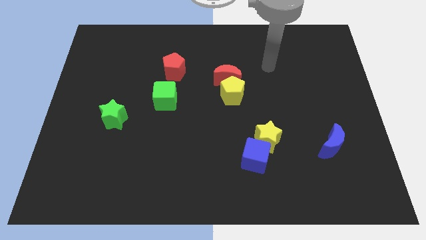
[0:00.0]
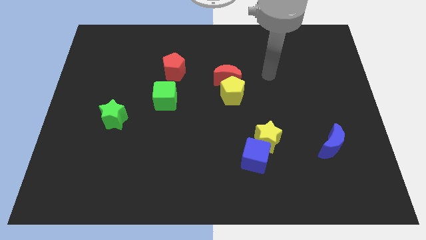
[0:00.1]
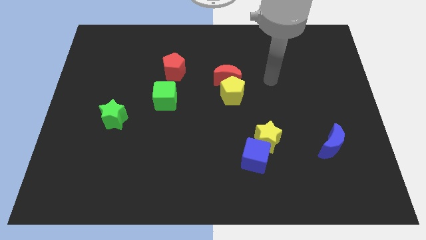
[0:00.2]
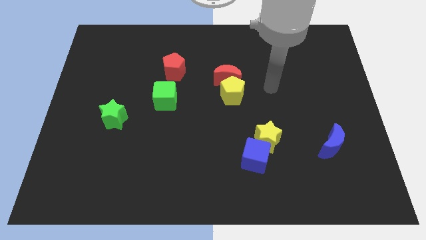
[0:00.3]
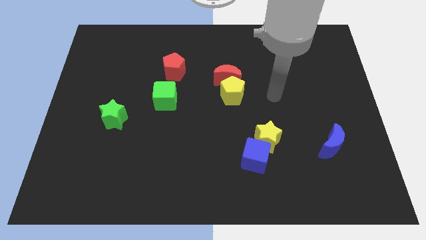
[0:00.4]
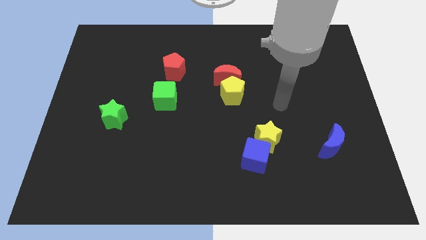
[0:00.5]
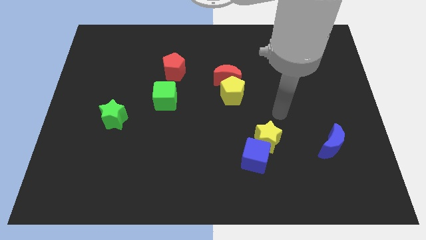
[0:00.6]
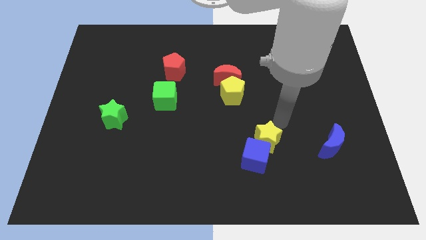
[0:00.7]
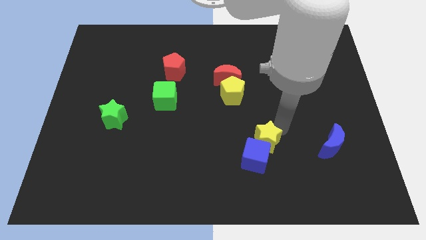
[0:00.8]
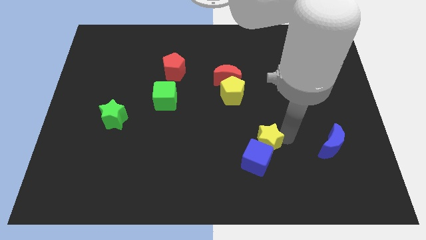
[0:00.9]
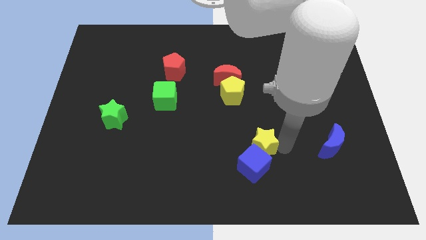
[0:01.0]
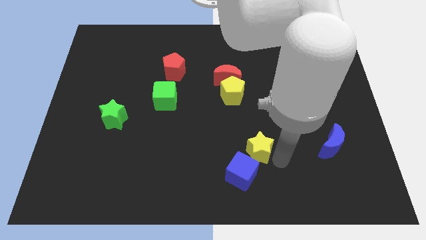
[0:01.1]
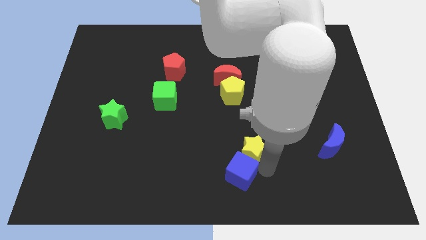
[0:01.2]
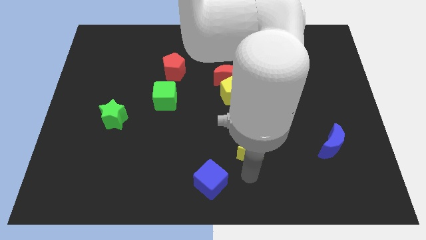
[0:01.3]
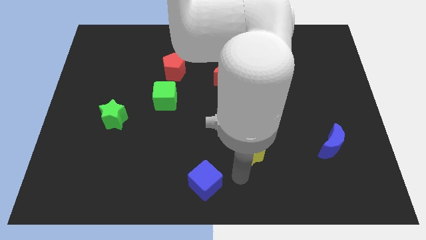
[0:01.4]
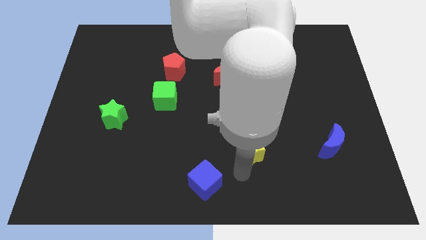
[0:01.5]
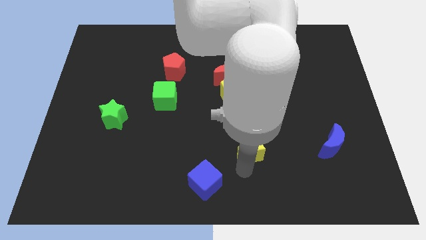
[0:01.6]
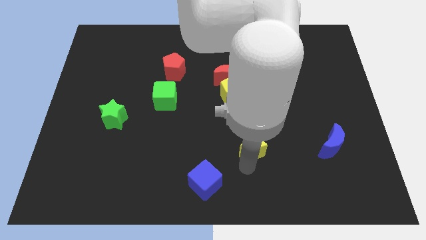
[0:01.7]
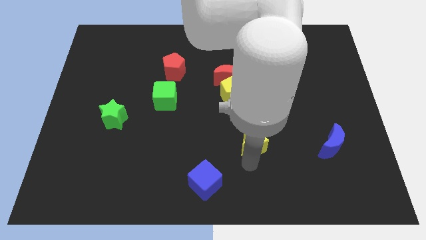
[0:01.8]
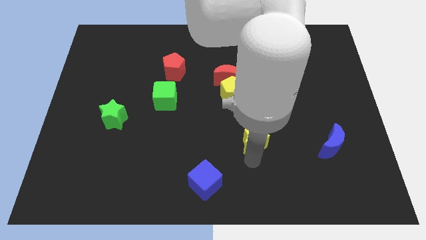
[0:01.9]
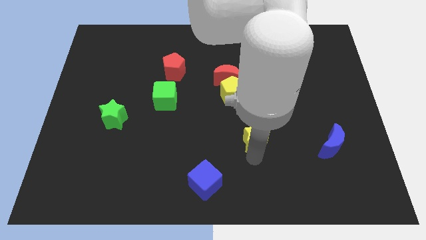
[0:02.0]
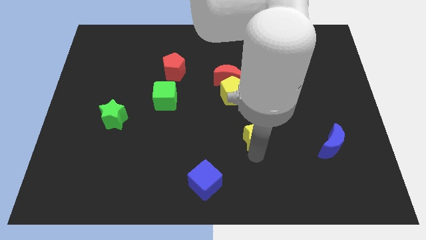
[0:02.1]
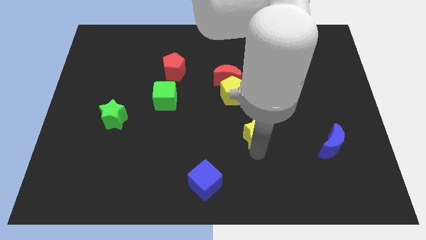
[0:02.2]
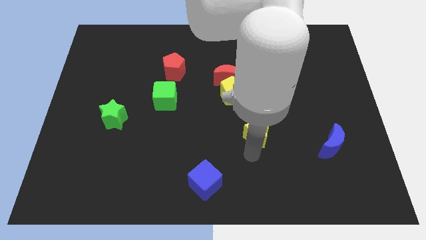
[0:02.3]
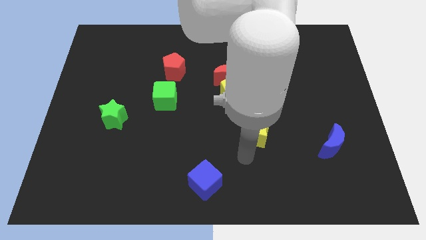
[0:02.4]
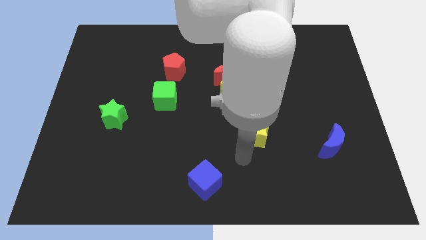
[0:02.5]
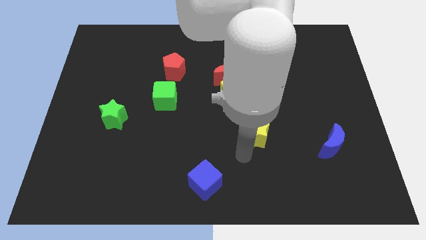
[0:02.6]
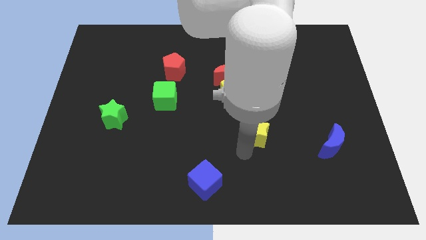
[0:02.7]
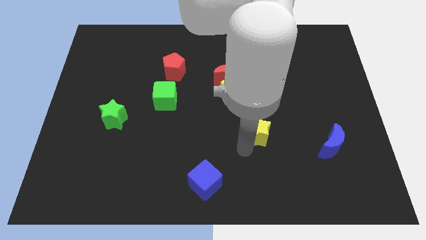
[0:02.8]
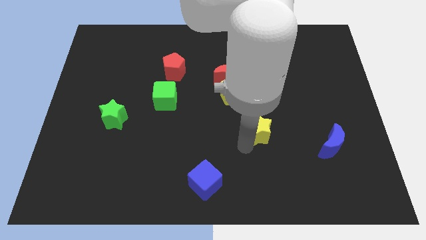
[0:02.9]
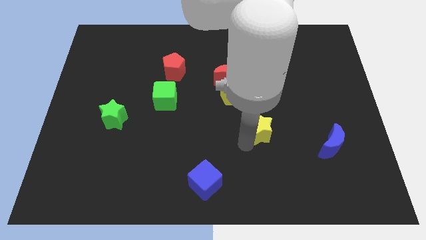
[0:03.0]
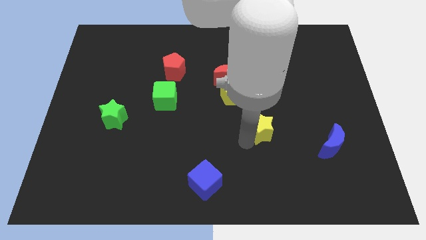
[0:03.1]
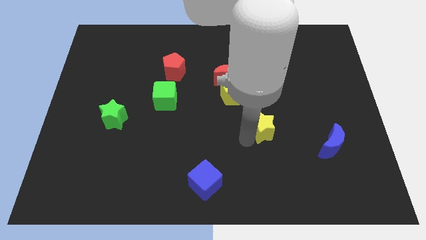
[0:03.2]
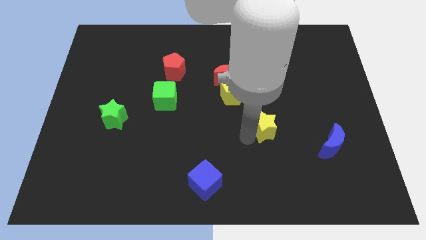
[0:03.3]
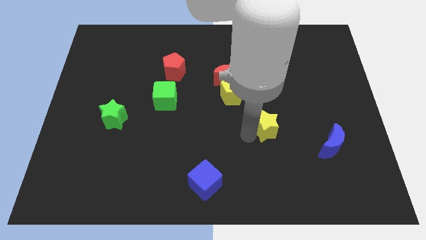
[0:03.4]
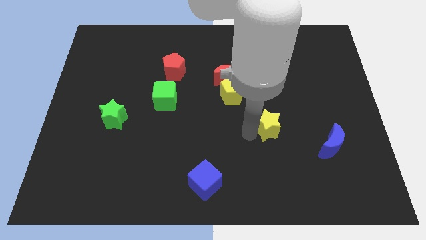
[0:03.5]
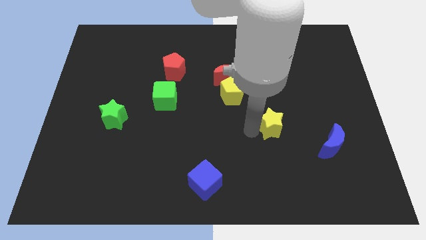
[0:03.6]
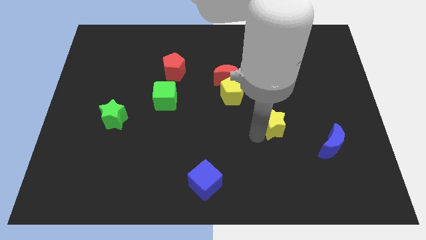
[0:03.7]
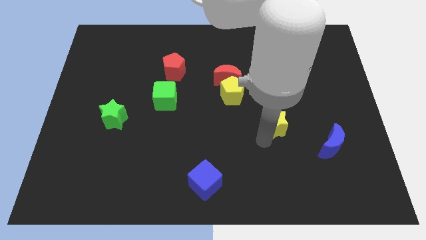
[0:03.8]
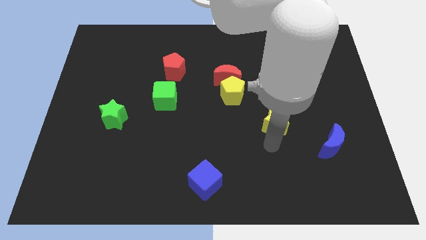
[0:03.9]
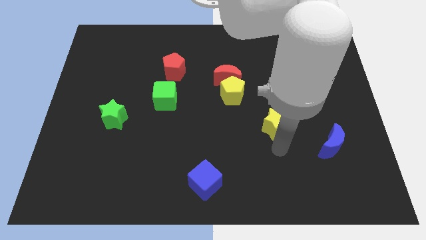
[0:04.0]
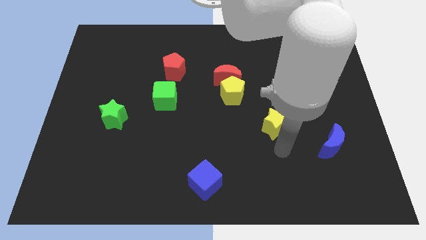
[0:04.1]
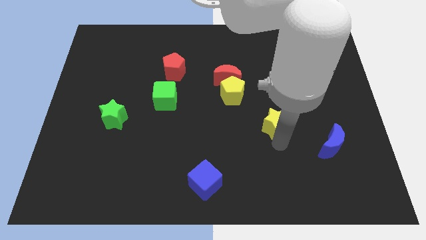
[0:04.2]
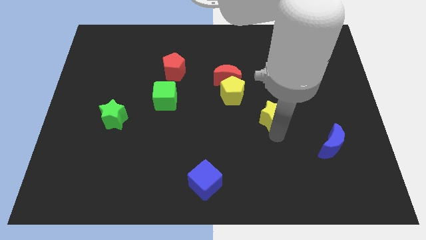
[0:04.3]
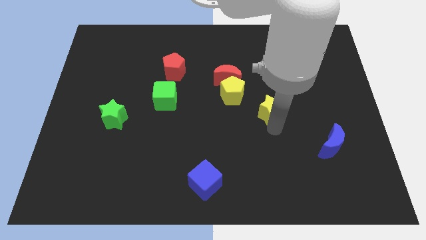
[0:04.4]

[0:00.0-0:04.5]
slightly push the yellow star upwards

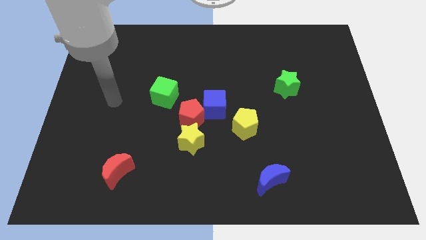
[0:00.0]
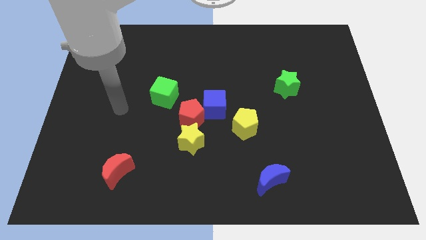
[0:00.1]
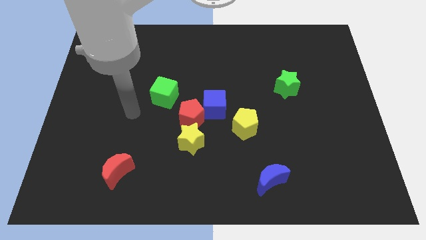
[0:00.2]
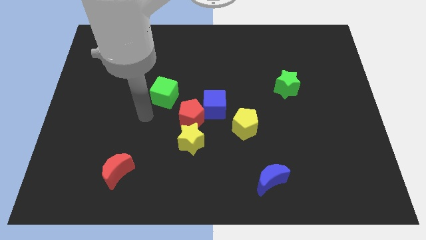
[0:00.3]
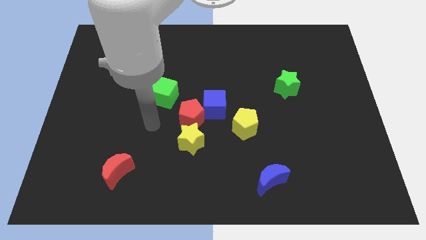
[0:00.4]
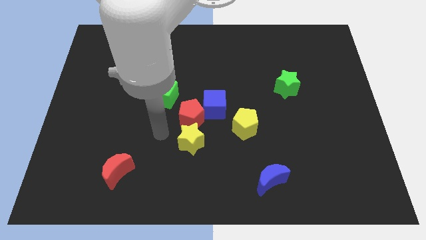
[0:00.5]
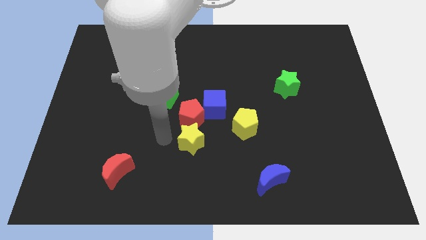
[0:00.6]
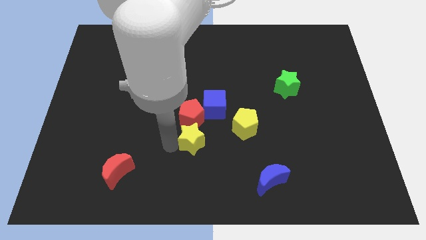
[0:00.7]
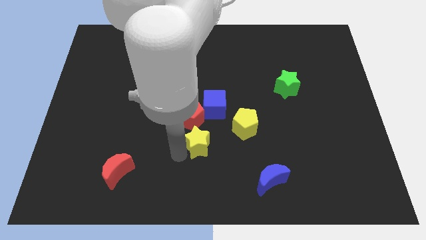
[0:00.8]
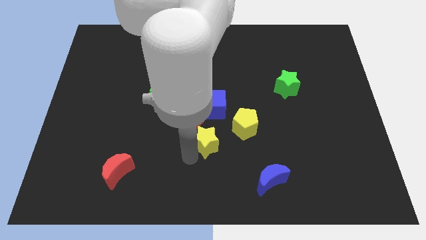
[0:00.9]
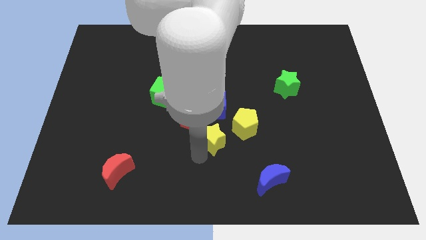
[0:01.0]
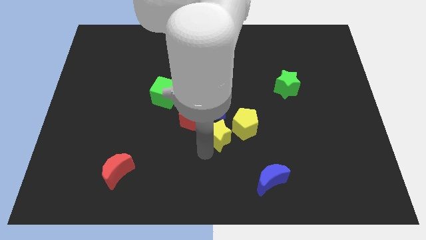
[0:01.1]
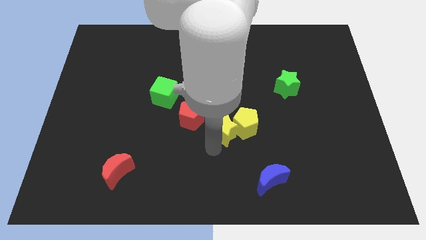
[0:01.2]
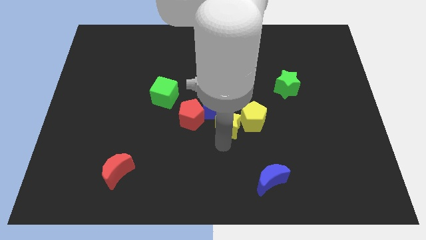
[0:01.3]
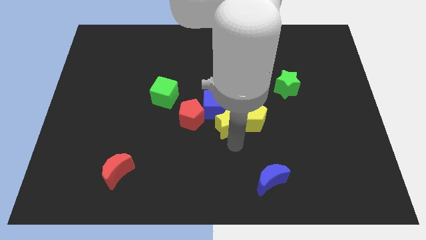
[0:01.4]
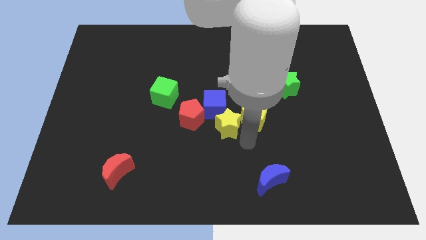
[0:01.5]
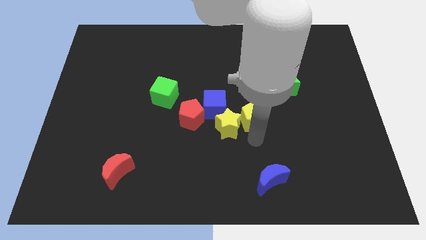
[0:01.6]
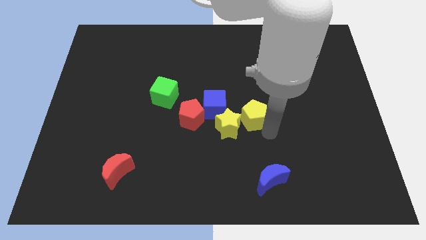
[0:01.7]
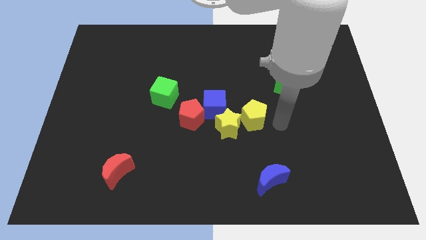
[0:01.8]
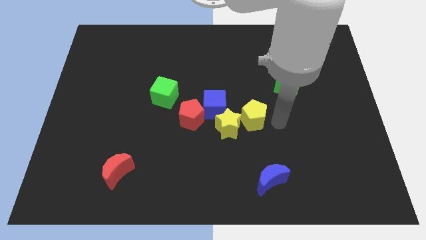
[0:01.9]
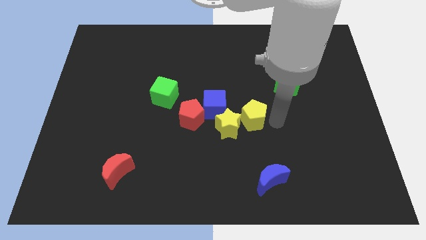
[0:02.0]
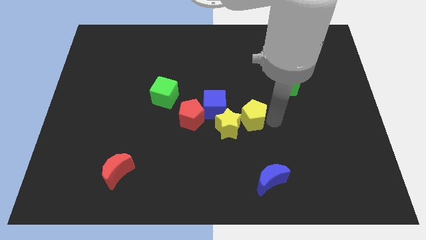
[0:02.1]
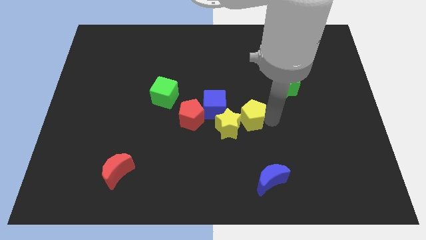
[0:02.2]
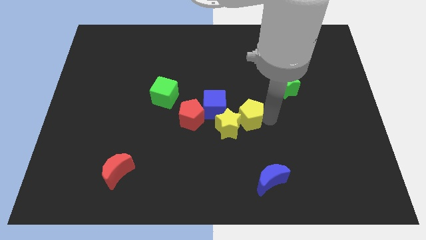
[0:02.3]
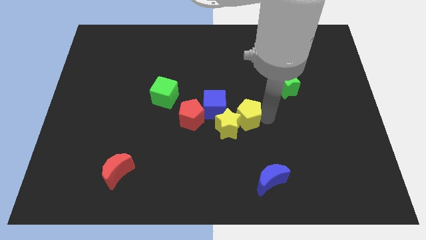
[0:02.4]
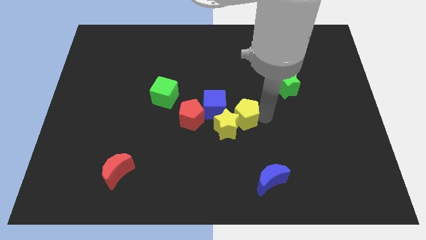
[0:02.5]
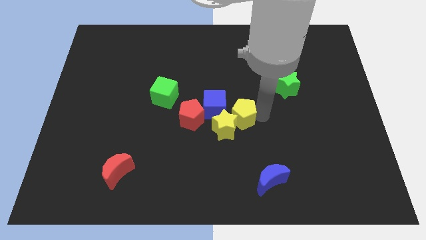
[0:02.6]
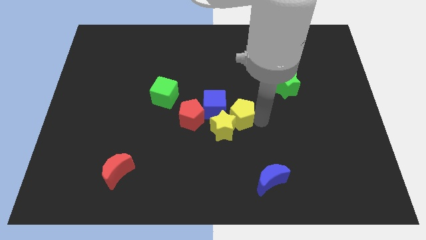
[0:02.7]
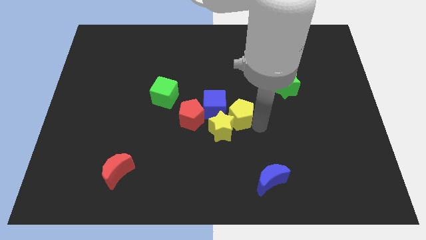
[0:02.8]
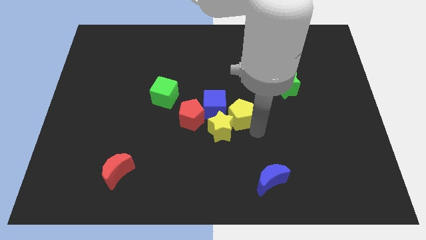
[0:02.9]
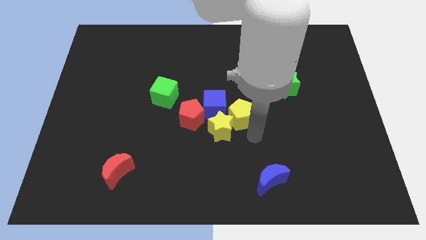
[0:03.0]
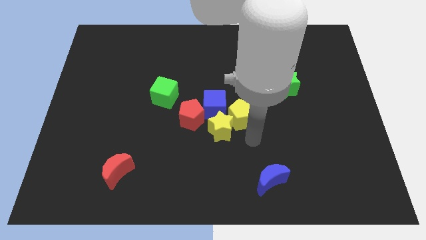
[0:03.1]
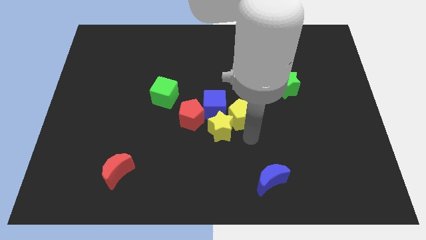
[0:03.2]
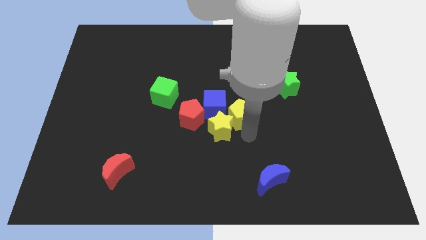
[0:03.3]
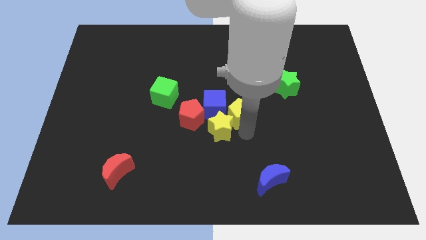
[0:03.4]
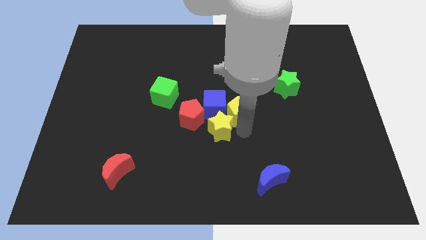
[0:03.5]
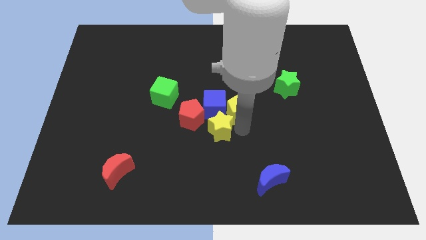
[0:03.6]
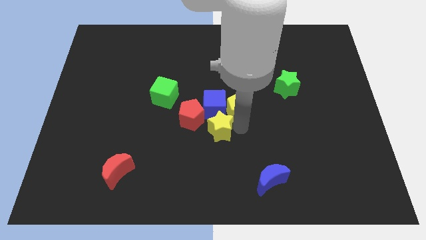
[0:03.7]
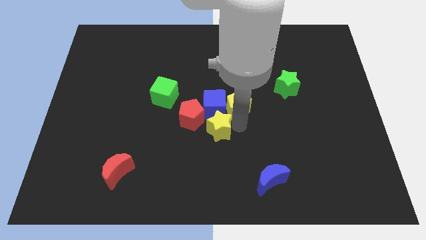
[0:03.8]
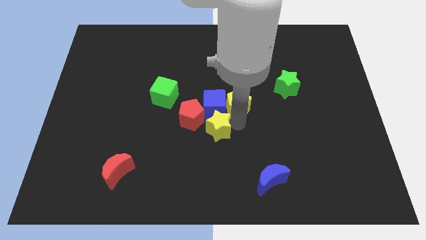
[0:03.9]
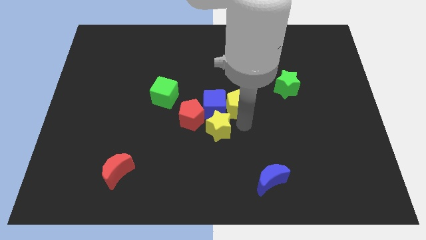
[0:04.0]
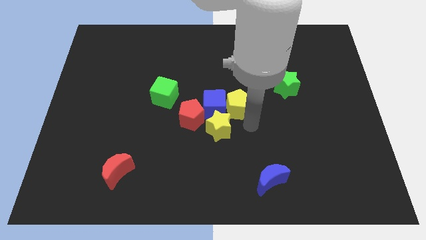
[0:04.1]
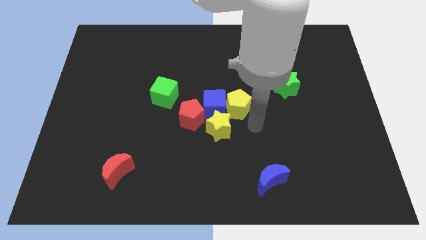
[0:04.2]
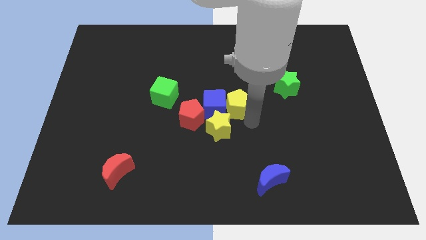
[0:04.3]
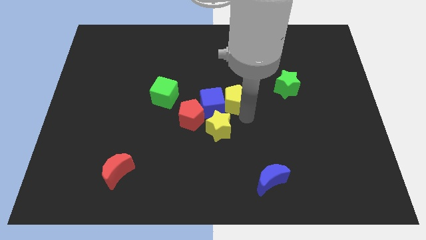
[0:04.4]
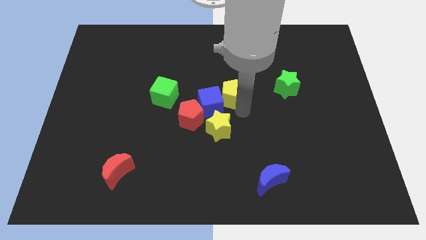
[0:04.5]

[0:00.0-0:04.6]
slide the yellow pentagon up and then to the left somewhat
